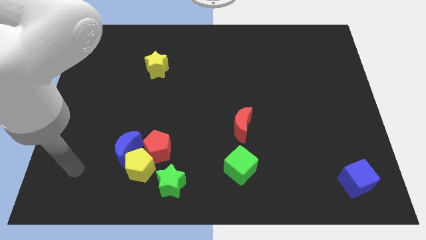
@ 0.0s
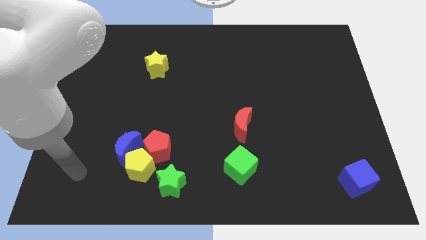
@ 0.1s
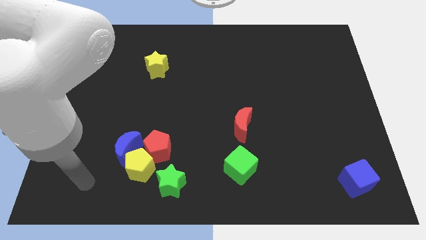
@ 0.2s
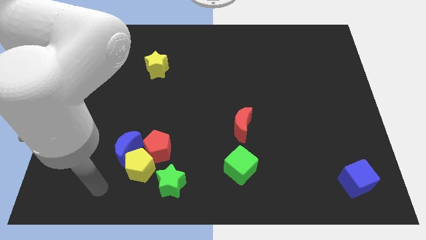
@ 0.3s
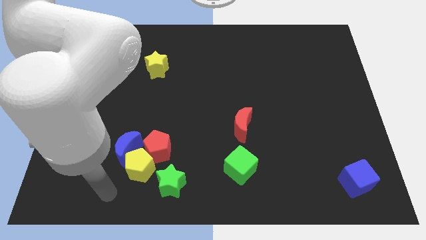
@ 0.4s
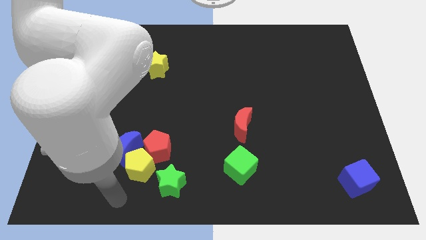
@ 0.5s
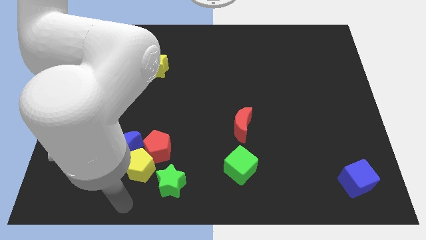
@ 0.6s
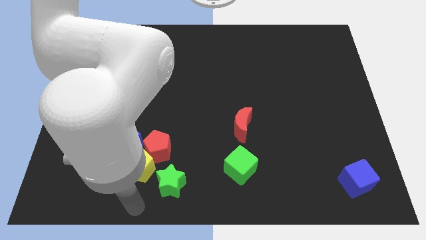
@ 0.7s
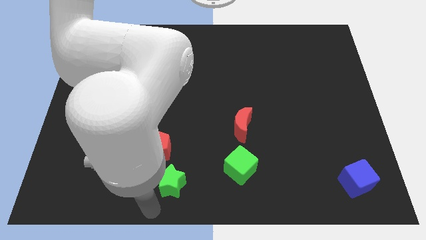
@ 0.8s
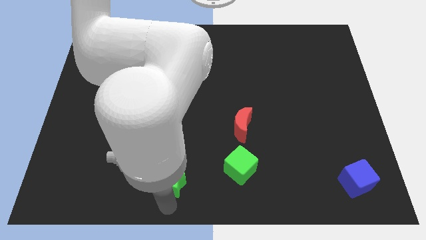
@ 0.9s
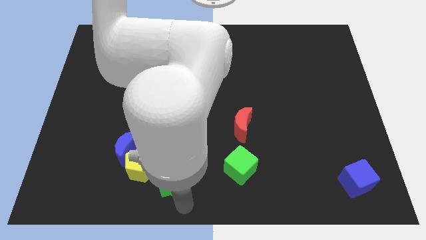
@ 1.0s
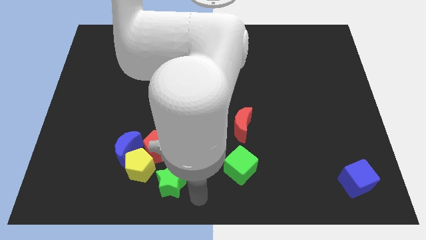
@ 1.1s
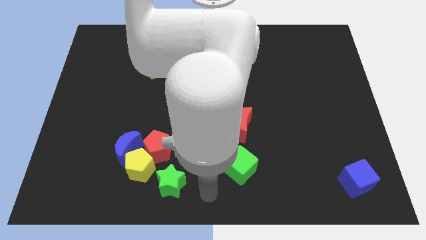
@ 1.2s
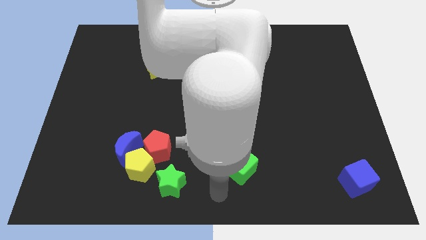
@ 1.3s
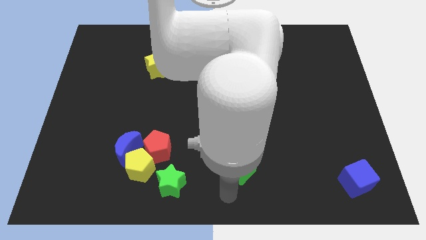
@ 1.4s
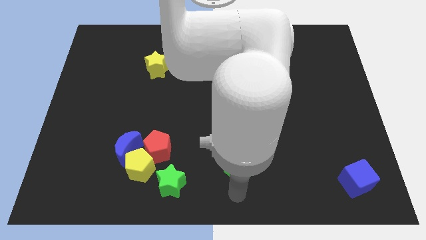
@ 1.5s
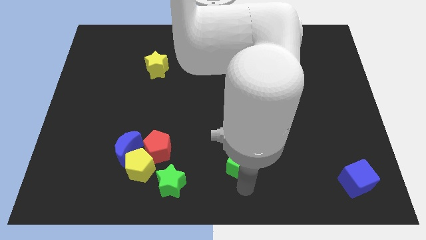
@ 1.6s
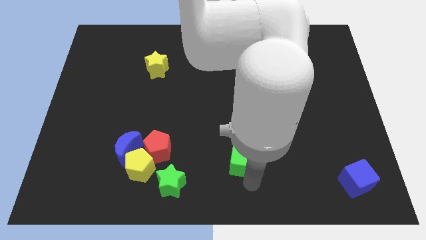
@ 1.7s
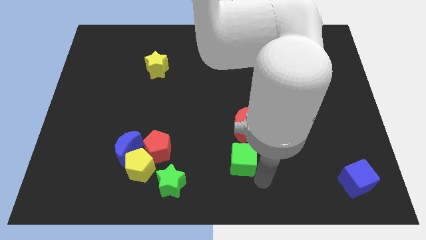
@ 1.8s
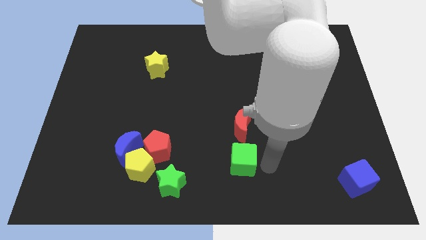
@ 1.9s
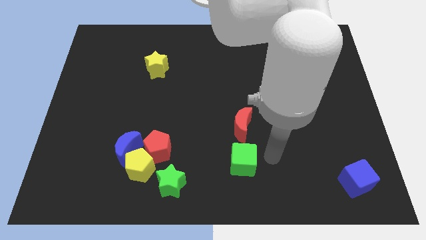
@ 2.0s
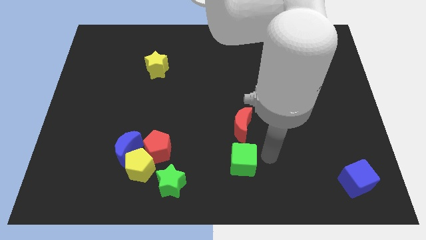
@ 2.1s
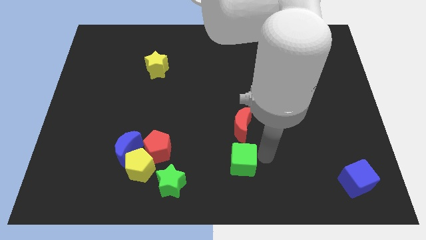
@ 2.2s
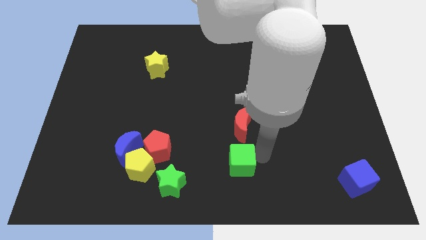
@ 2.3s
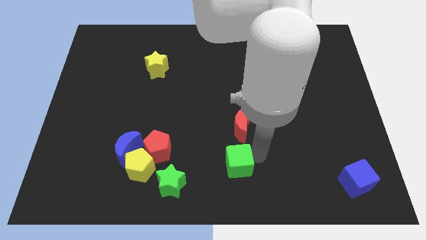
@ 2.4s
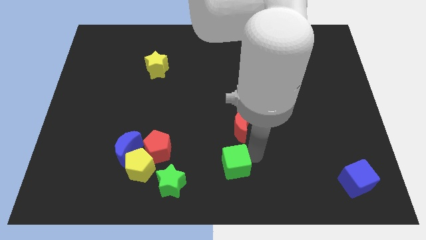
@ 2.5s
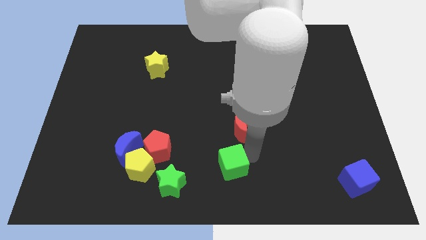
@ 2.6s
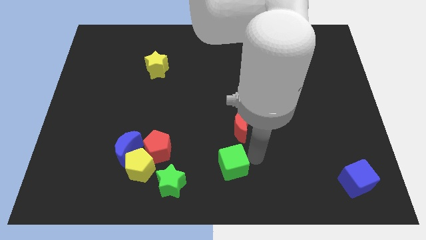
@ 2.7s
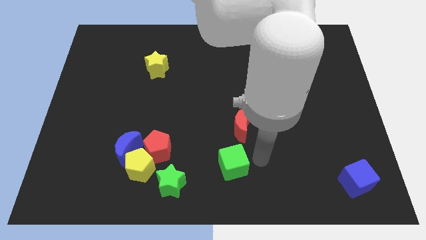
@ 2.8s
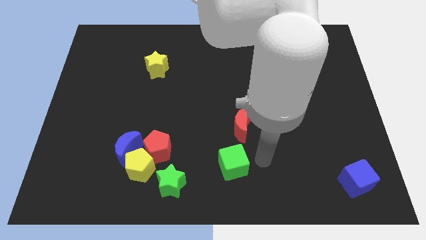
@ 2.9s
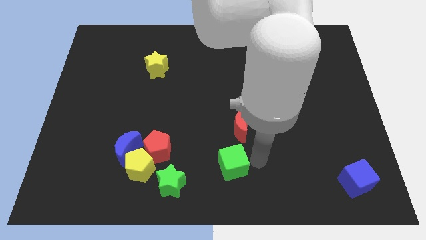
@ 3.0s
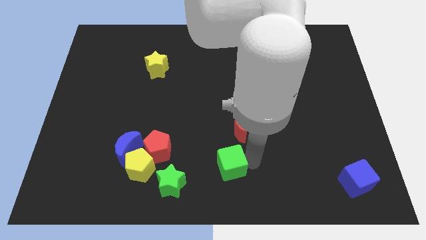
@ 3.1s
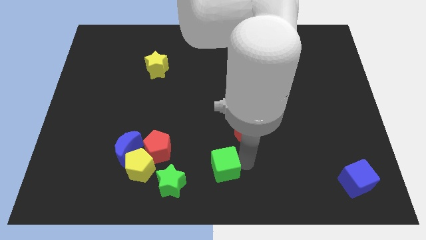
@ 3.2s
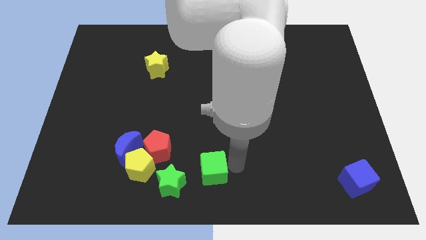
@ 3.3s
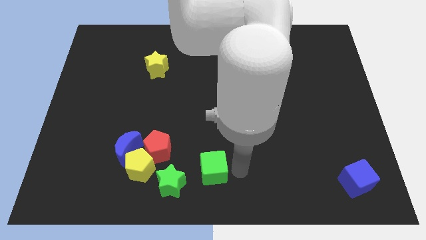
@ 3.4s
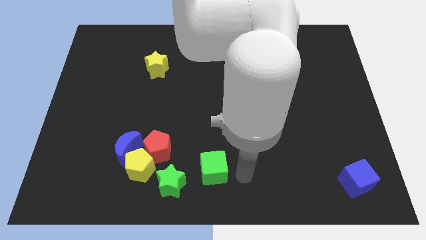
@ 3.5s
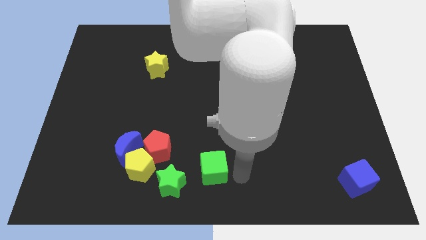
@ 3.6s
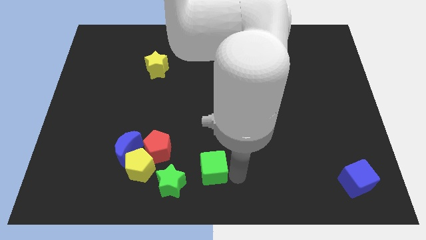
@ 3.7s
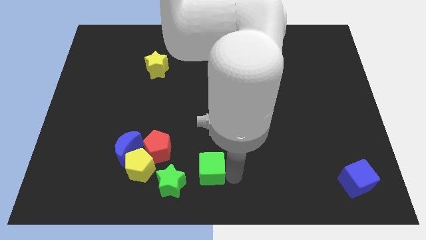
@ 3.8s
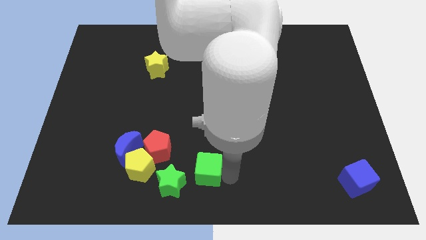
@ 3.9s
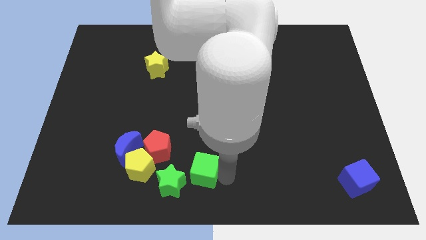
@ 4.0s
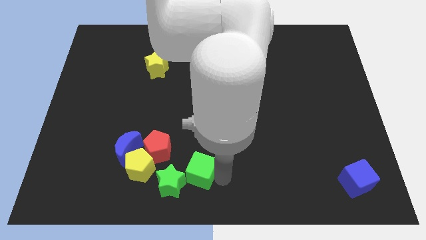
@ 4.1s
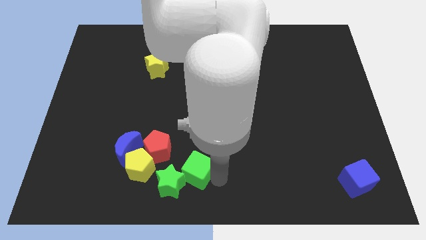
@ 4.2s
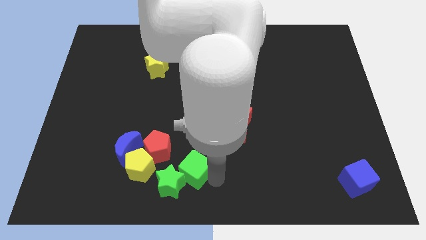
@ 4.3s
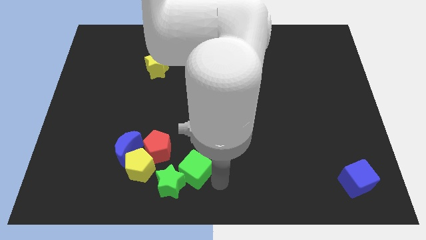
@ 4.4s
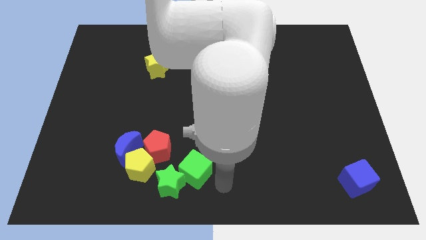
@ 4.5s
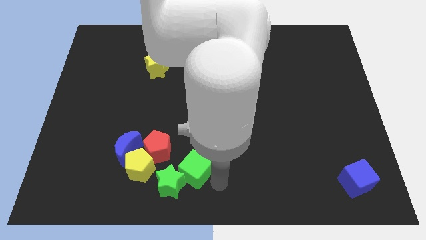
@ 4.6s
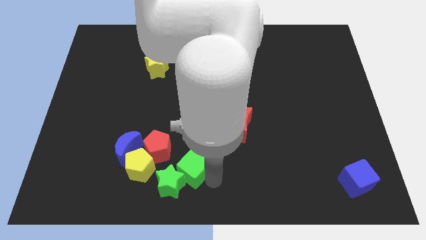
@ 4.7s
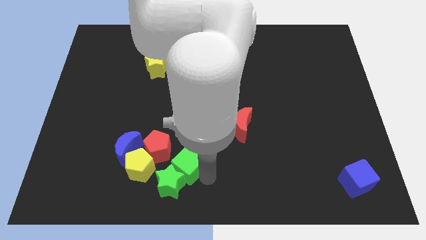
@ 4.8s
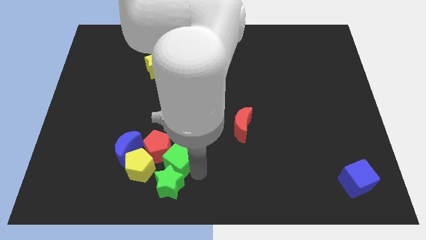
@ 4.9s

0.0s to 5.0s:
slide the green cube next to the red pentagon

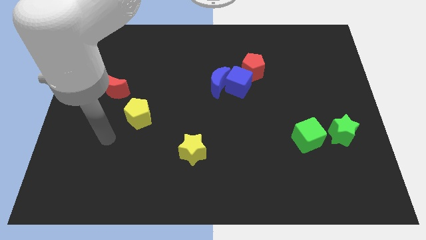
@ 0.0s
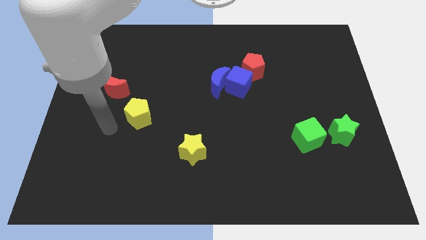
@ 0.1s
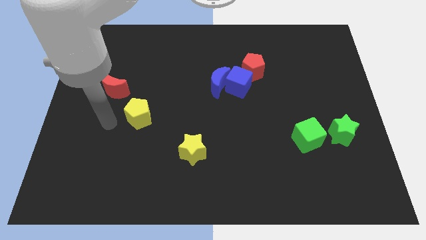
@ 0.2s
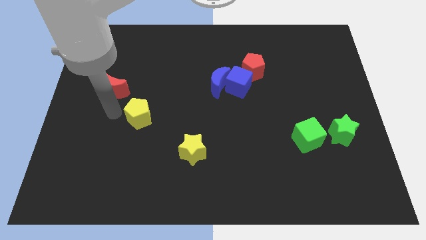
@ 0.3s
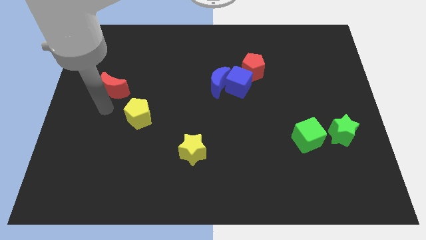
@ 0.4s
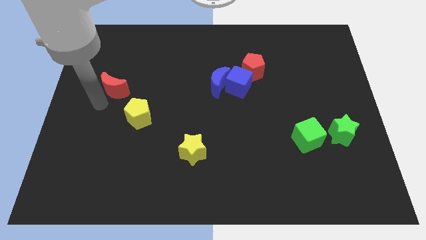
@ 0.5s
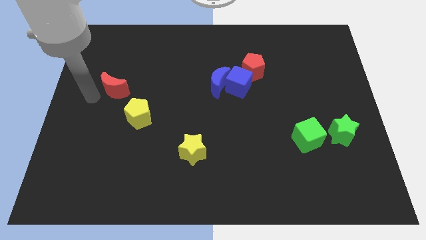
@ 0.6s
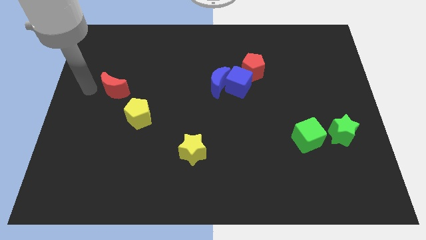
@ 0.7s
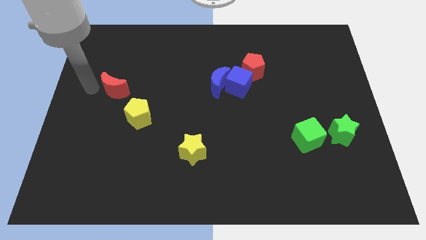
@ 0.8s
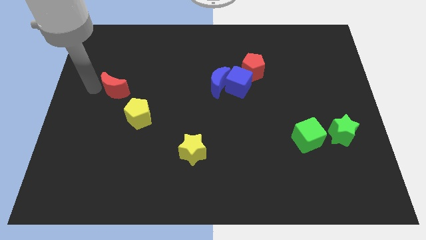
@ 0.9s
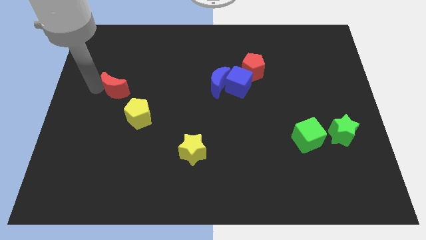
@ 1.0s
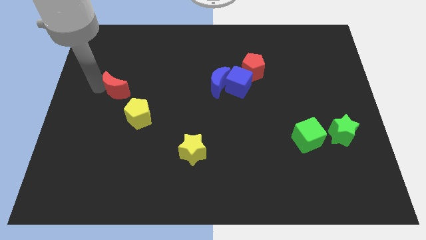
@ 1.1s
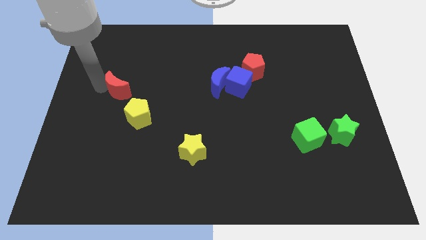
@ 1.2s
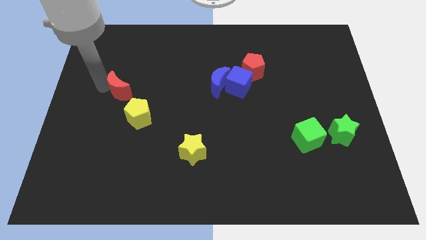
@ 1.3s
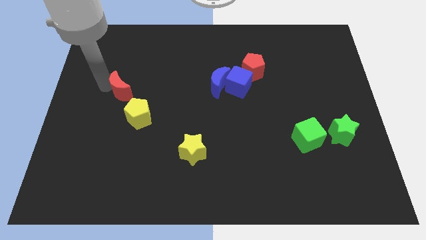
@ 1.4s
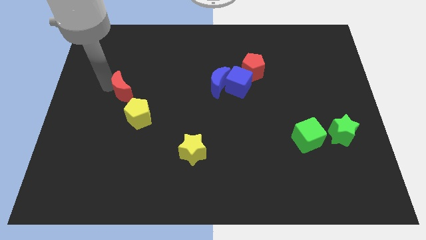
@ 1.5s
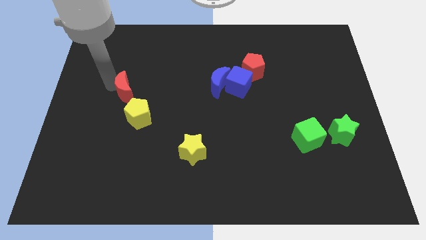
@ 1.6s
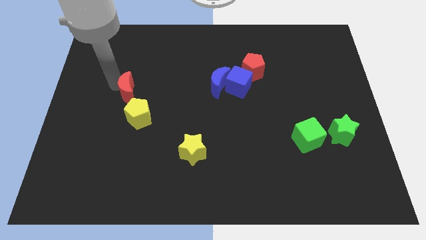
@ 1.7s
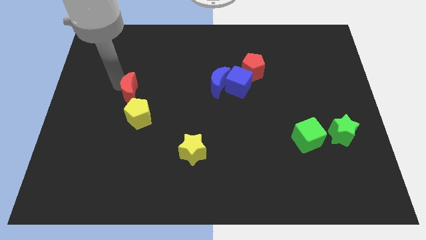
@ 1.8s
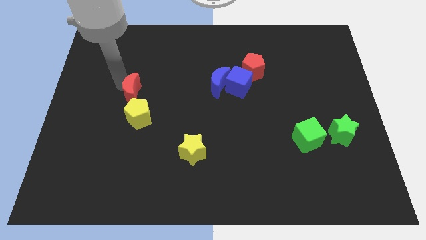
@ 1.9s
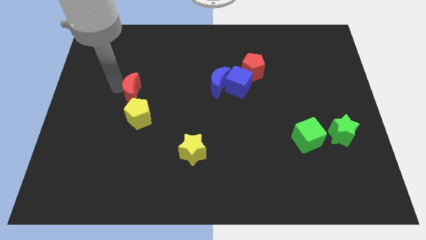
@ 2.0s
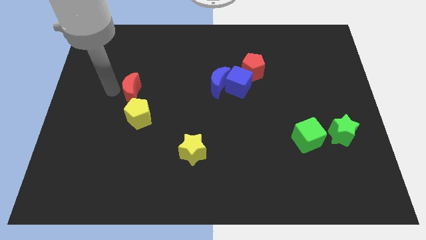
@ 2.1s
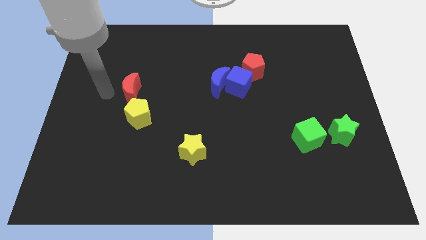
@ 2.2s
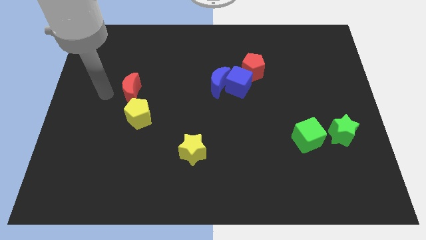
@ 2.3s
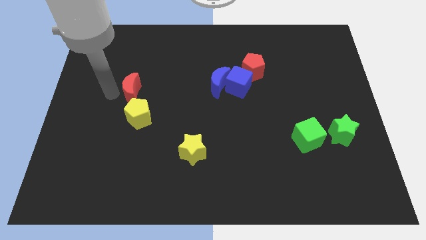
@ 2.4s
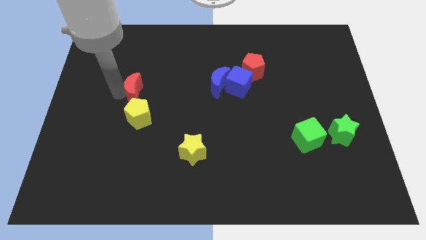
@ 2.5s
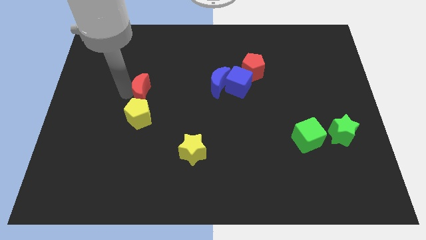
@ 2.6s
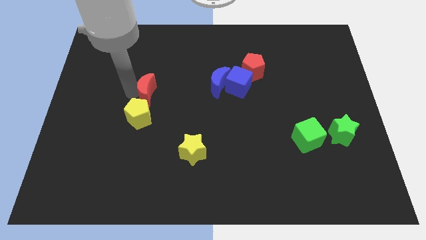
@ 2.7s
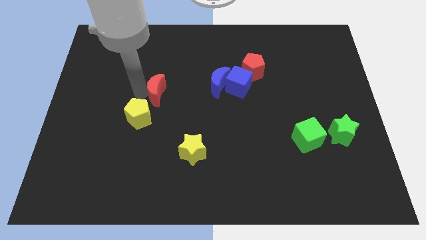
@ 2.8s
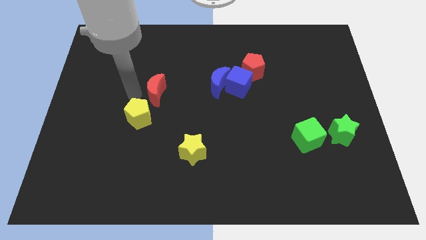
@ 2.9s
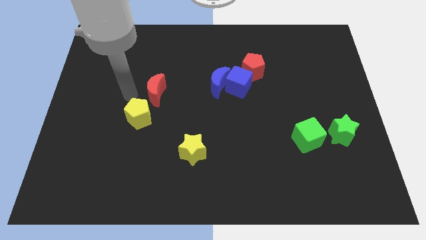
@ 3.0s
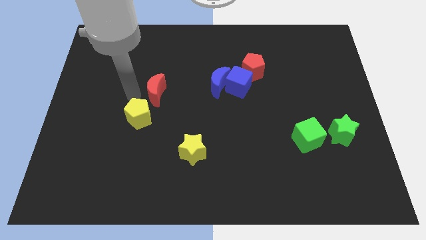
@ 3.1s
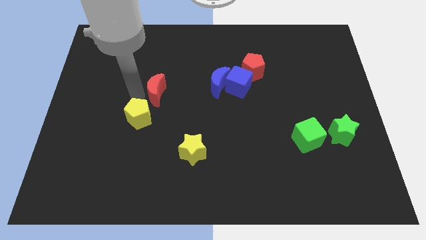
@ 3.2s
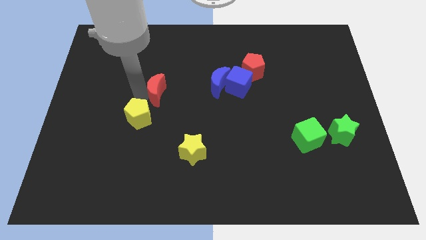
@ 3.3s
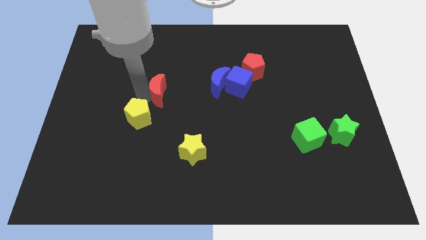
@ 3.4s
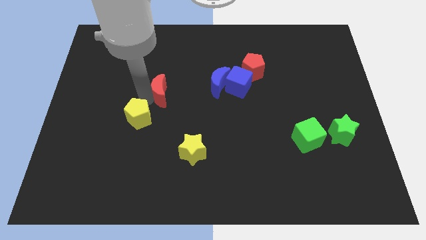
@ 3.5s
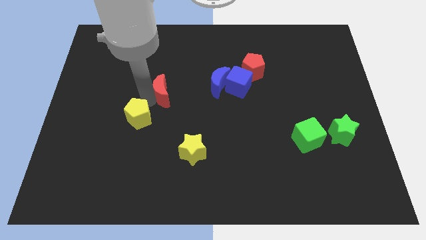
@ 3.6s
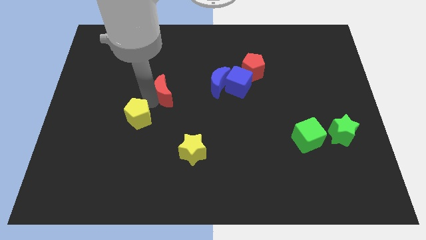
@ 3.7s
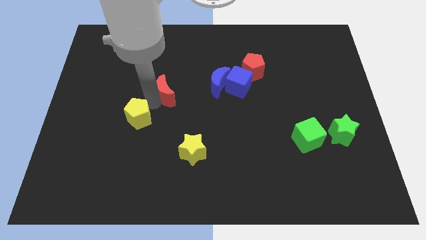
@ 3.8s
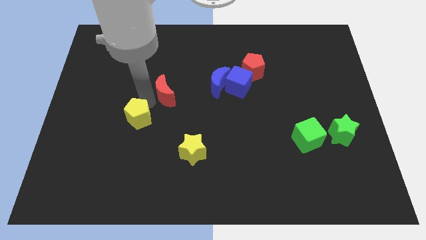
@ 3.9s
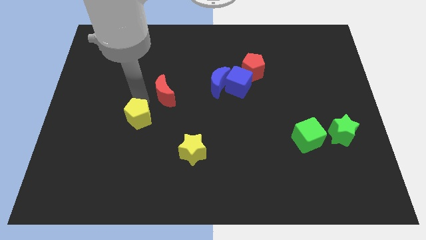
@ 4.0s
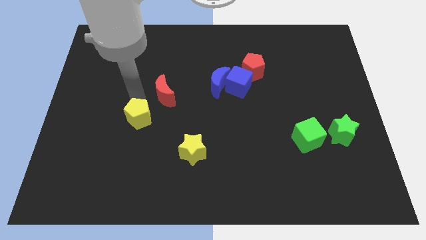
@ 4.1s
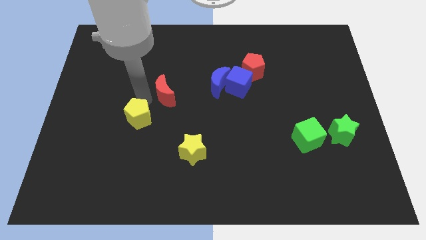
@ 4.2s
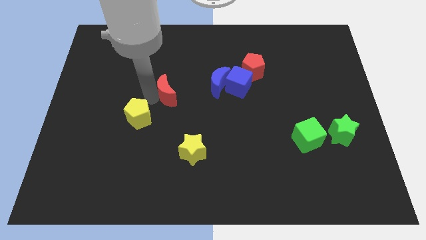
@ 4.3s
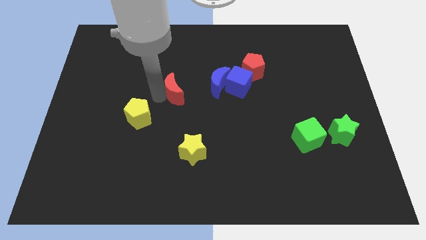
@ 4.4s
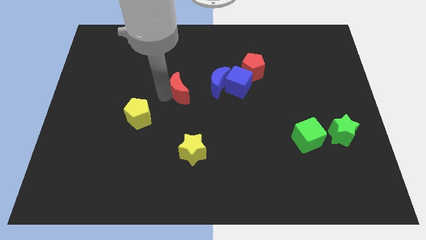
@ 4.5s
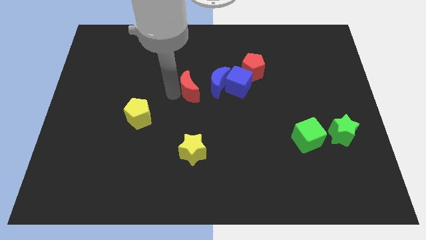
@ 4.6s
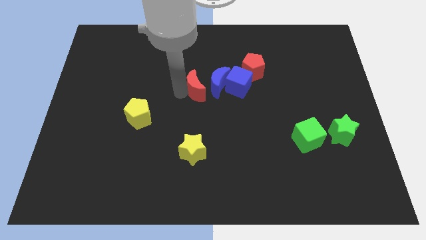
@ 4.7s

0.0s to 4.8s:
push the red moon next to the blue moon
